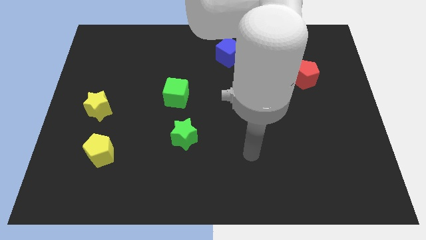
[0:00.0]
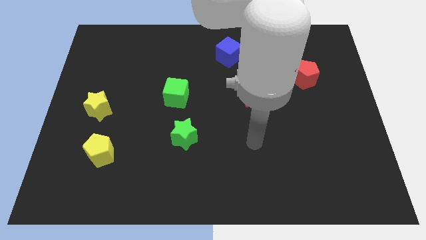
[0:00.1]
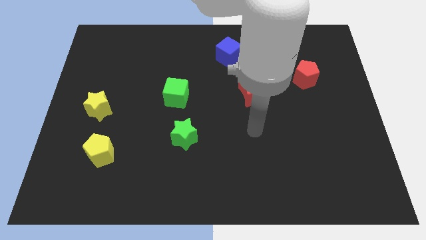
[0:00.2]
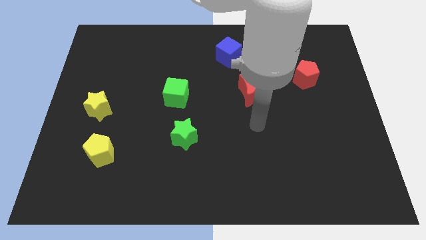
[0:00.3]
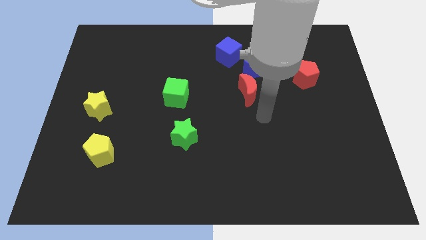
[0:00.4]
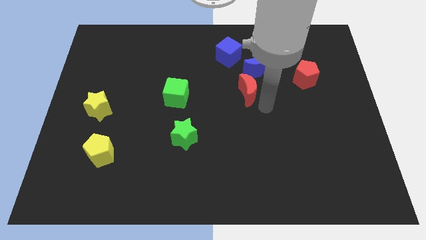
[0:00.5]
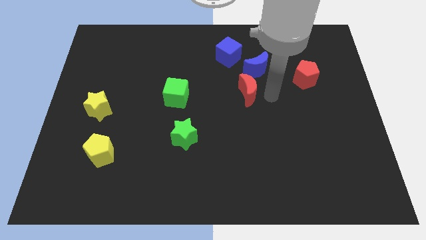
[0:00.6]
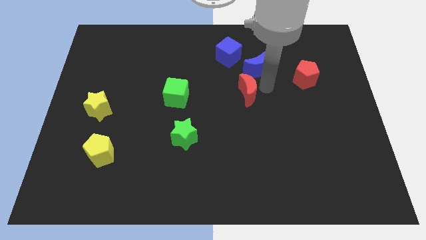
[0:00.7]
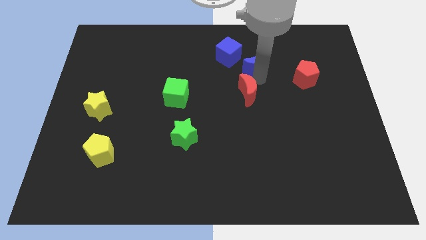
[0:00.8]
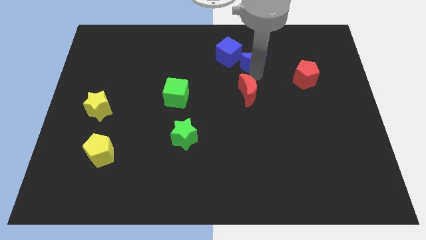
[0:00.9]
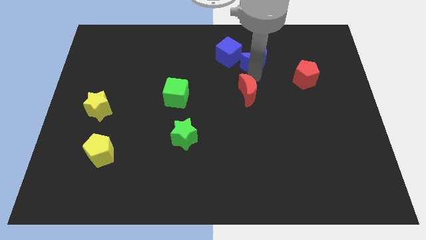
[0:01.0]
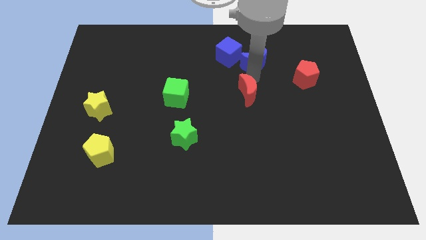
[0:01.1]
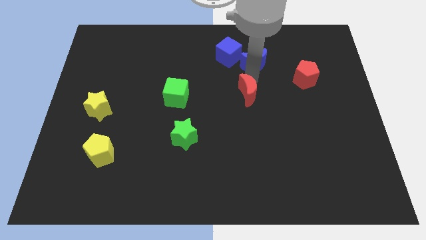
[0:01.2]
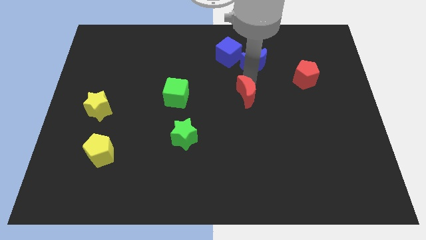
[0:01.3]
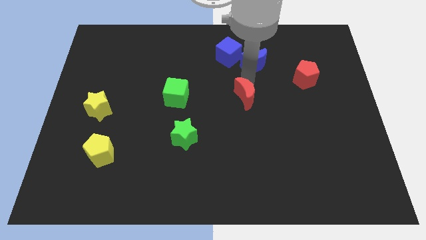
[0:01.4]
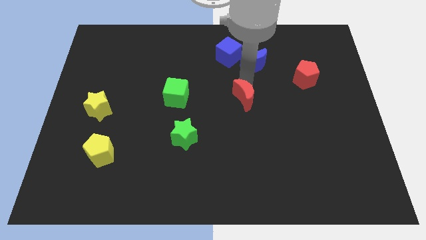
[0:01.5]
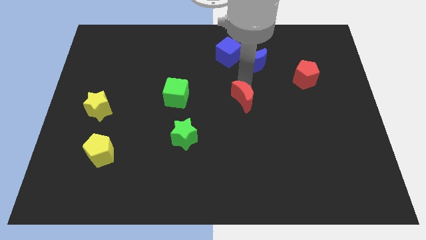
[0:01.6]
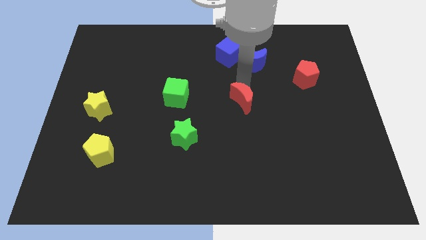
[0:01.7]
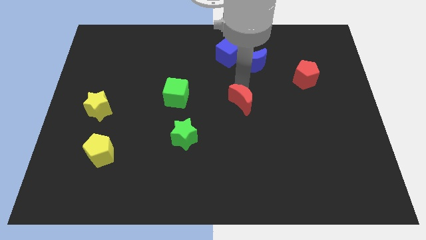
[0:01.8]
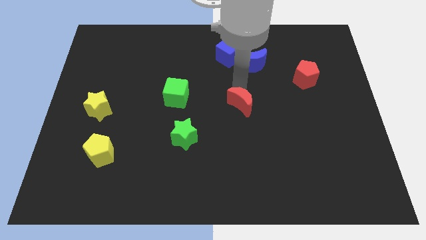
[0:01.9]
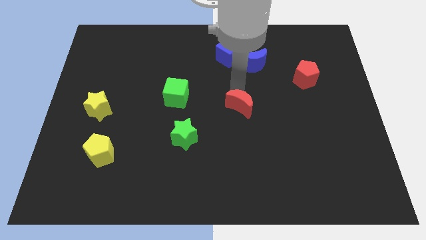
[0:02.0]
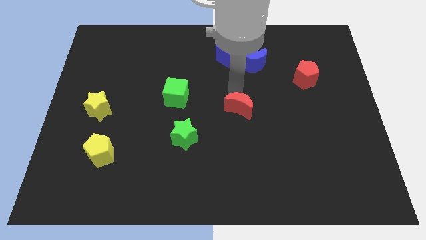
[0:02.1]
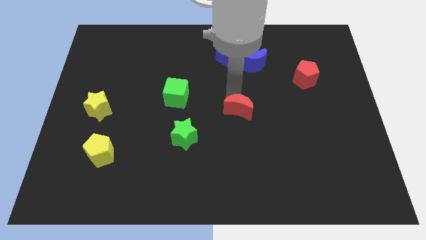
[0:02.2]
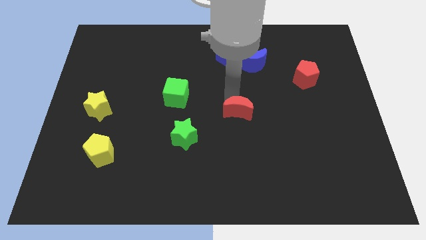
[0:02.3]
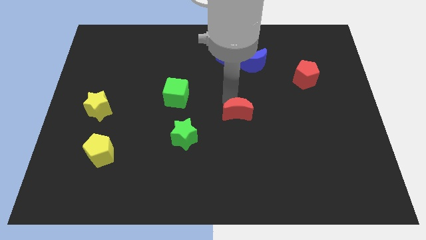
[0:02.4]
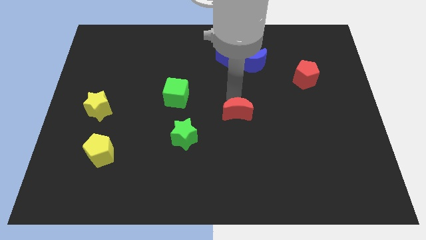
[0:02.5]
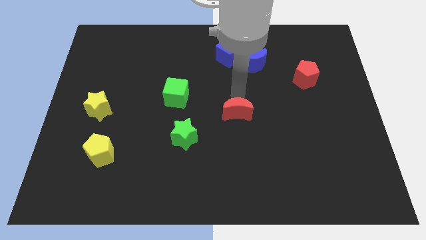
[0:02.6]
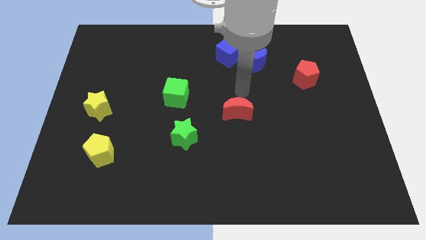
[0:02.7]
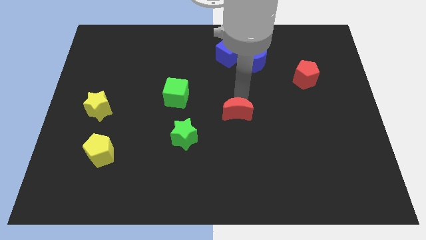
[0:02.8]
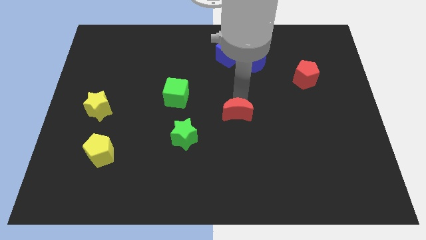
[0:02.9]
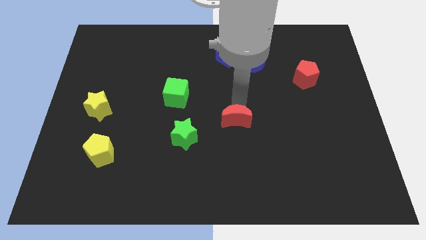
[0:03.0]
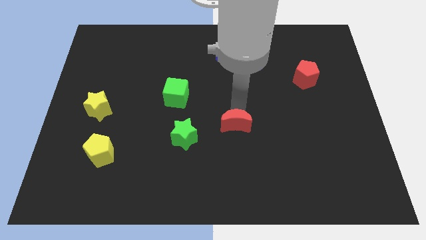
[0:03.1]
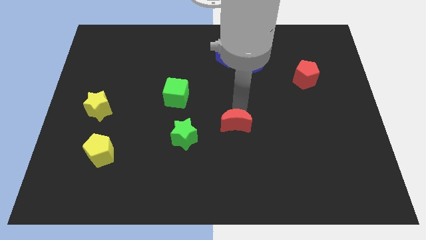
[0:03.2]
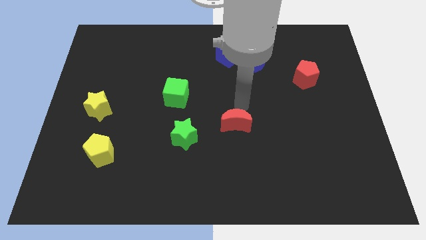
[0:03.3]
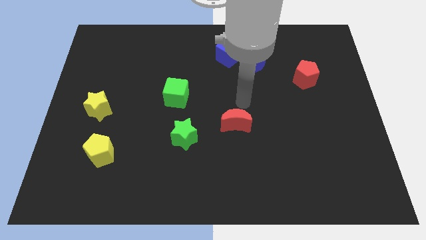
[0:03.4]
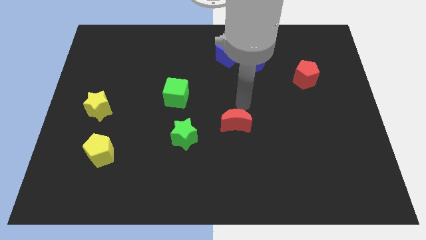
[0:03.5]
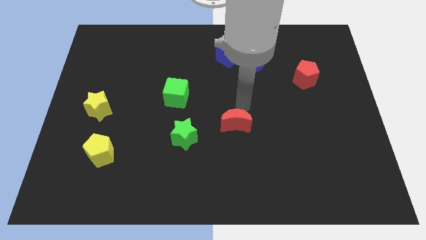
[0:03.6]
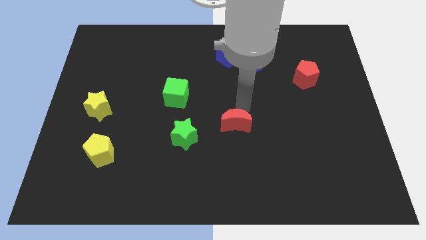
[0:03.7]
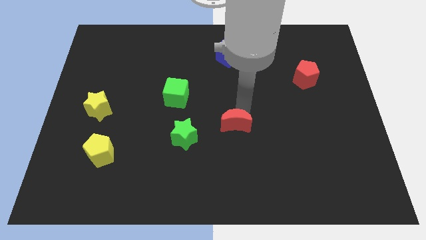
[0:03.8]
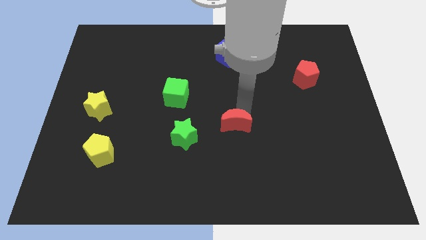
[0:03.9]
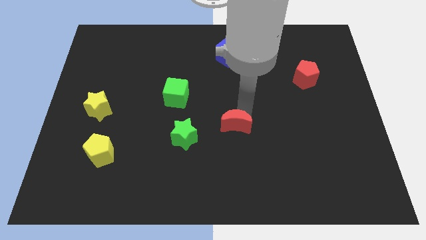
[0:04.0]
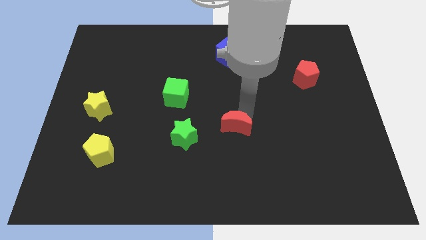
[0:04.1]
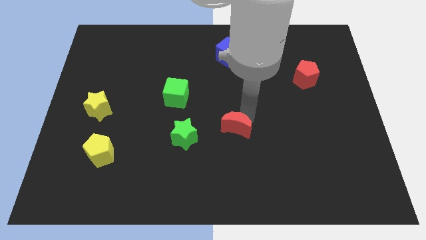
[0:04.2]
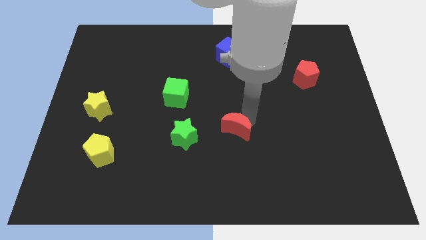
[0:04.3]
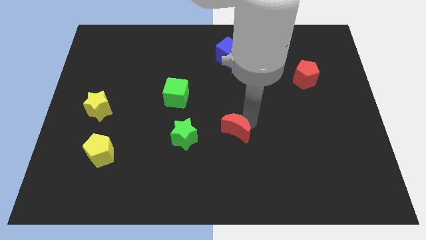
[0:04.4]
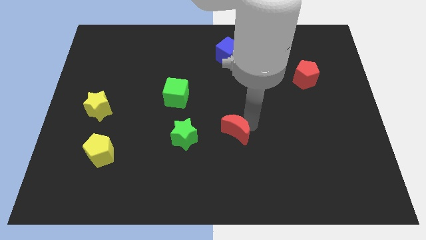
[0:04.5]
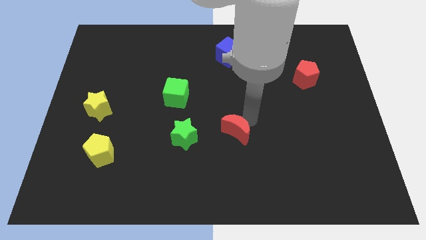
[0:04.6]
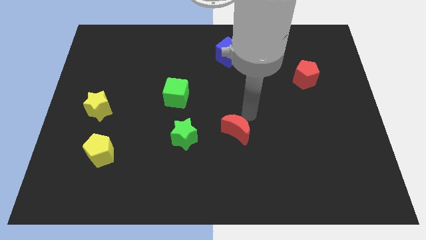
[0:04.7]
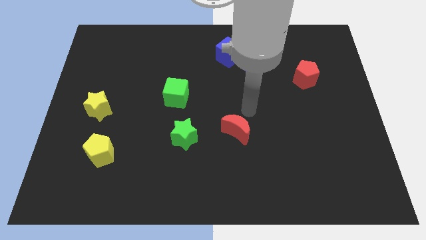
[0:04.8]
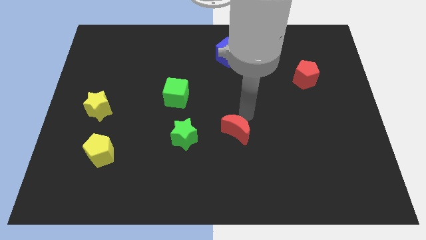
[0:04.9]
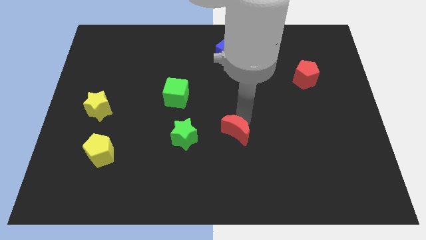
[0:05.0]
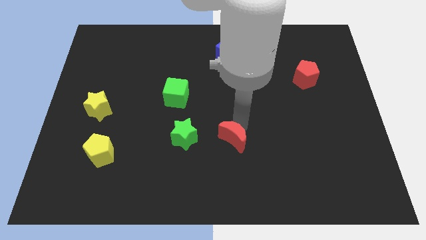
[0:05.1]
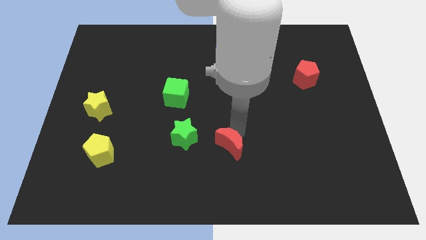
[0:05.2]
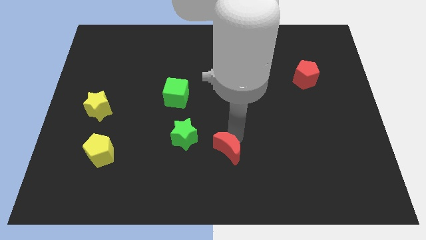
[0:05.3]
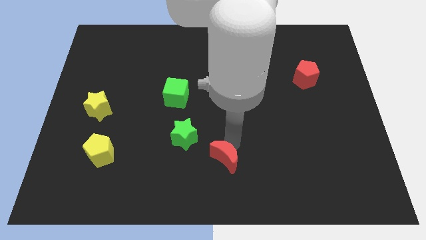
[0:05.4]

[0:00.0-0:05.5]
slide the red moon to the bottom side
